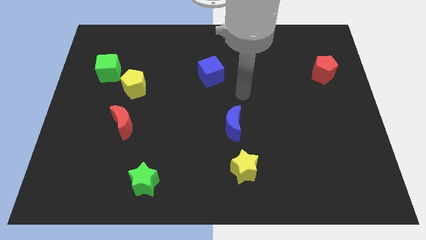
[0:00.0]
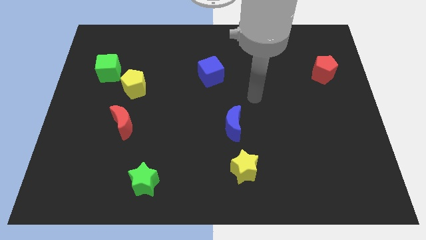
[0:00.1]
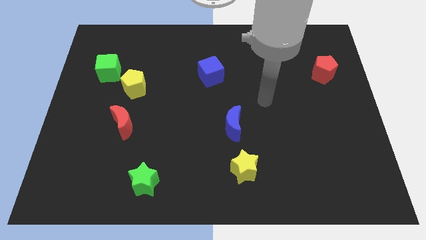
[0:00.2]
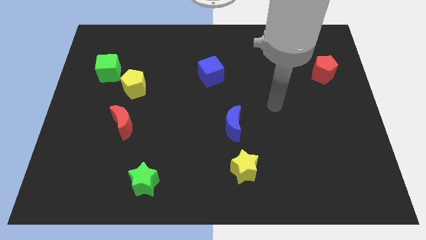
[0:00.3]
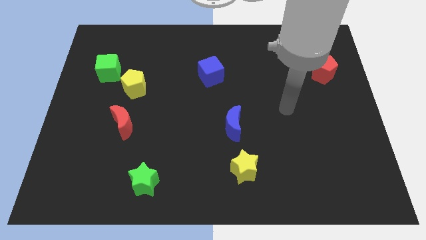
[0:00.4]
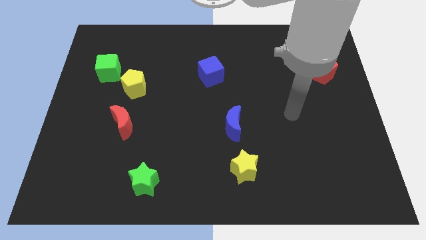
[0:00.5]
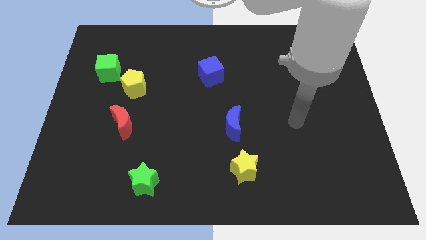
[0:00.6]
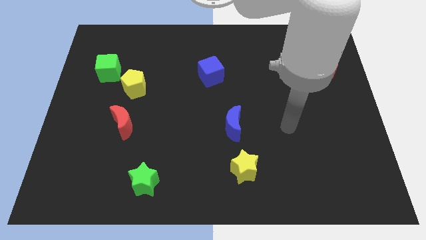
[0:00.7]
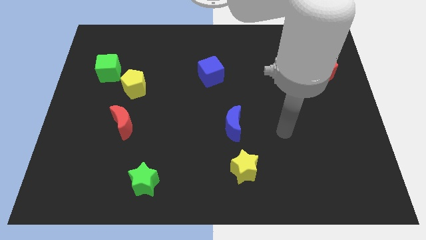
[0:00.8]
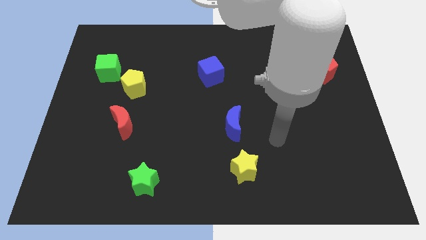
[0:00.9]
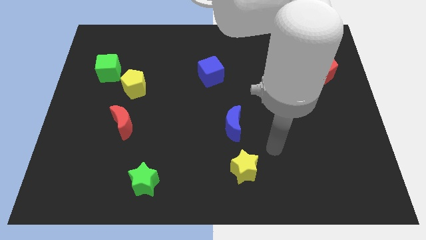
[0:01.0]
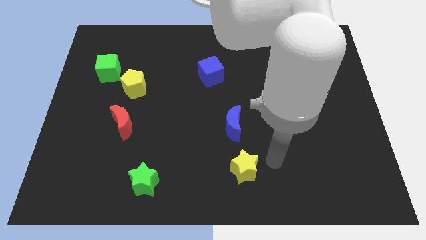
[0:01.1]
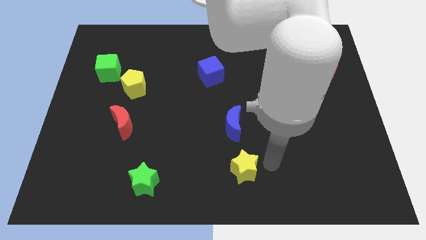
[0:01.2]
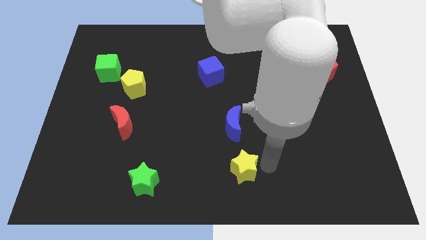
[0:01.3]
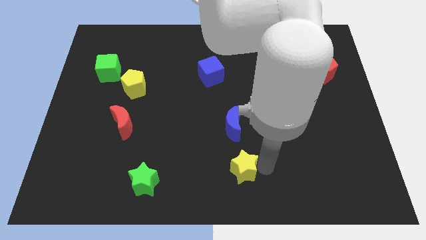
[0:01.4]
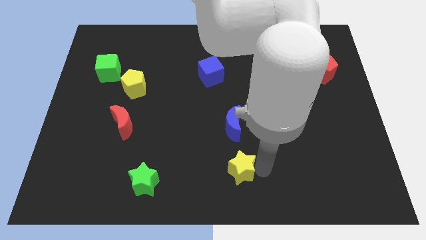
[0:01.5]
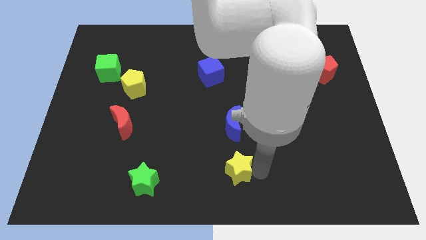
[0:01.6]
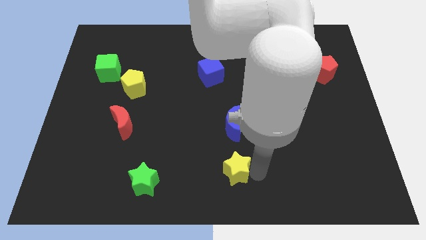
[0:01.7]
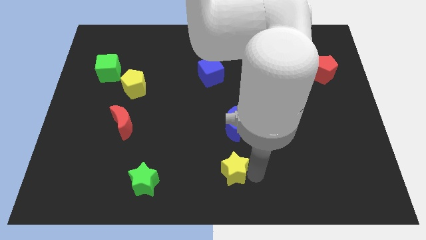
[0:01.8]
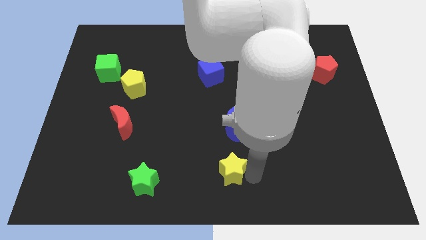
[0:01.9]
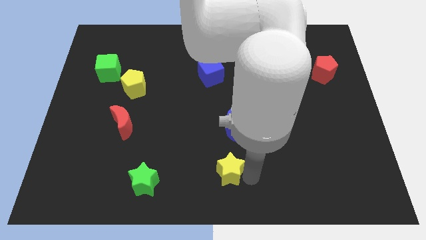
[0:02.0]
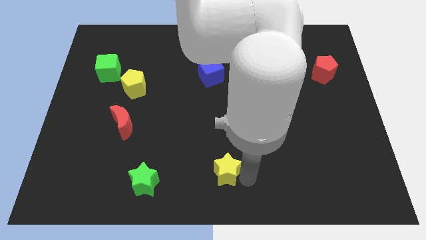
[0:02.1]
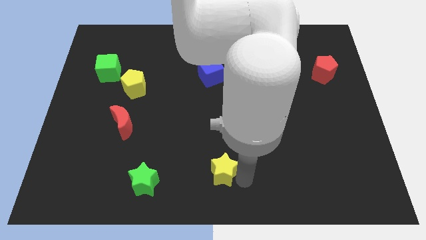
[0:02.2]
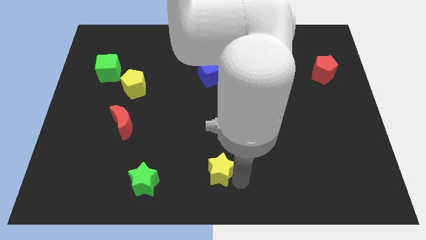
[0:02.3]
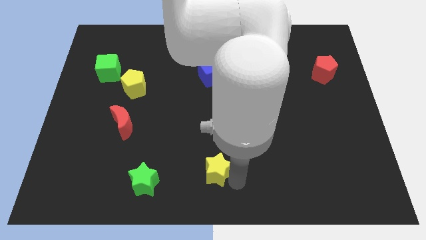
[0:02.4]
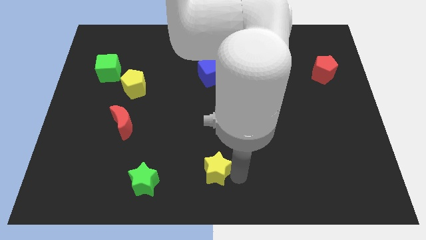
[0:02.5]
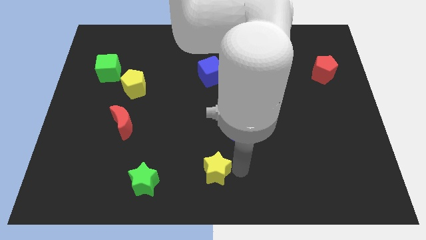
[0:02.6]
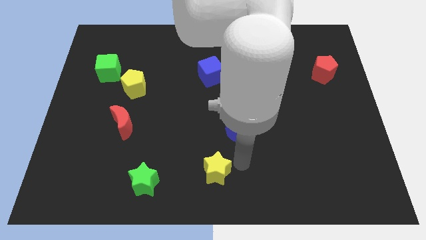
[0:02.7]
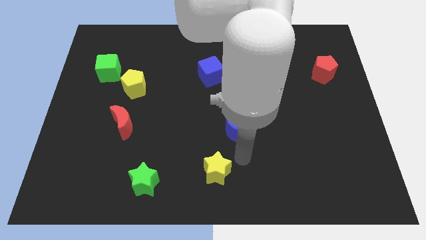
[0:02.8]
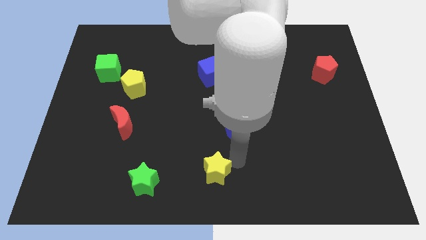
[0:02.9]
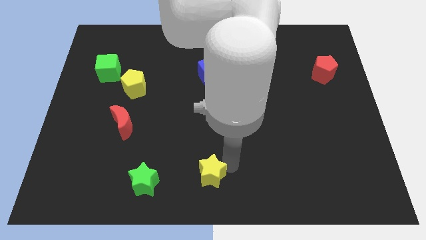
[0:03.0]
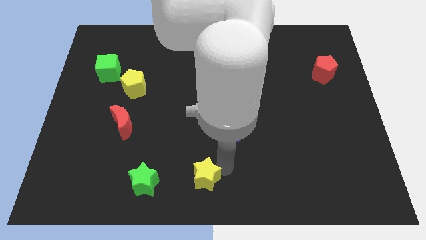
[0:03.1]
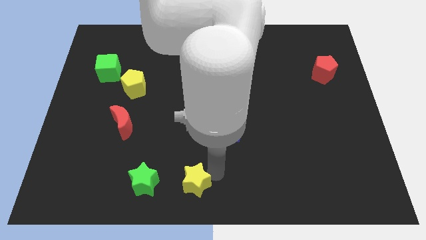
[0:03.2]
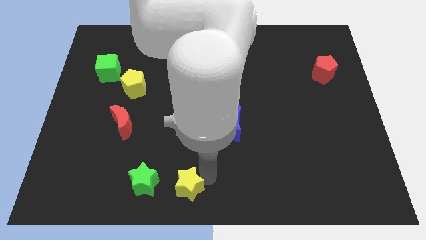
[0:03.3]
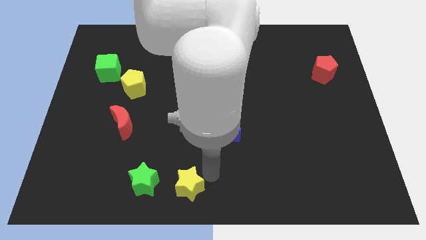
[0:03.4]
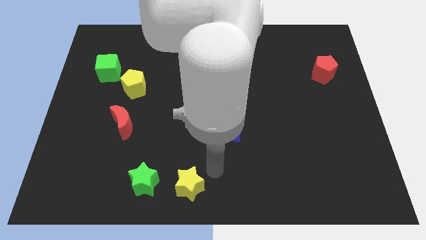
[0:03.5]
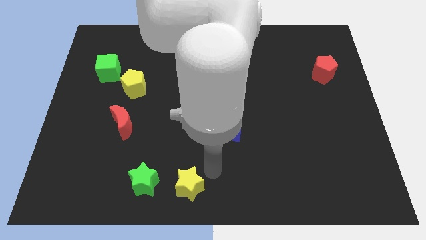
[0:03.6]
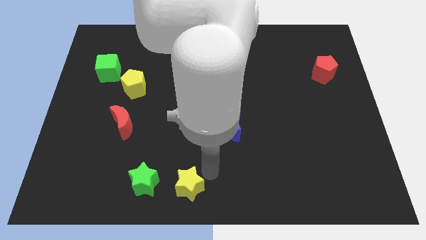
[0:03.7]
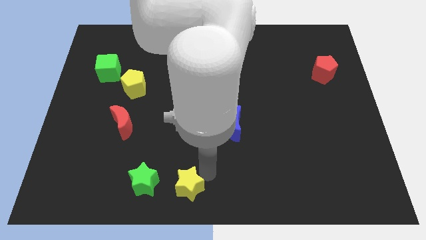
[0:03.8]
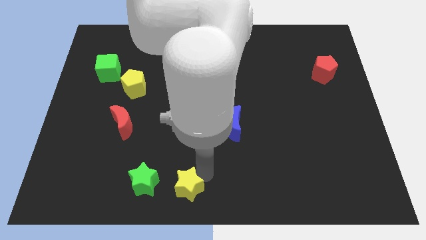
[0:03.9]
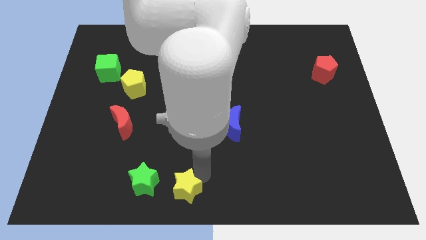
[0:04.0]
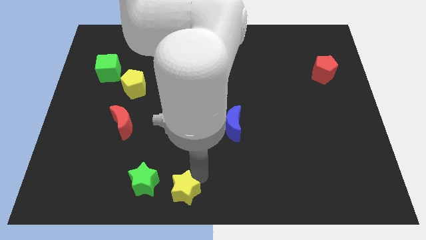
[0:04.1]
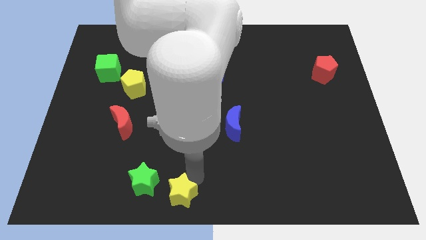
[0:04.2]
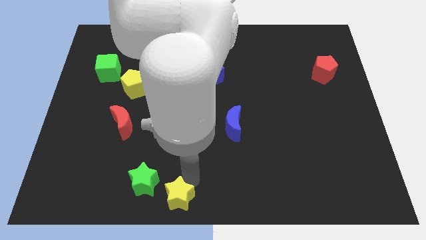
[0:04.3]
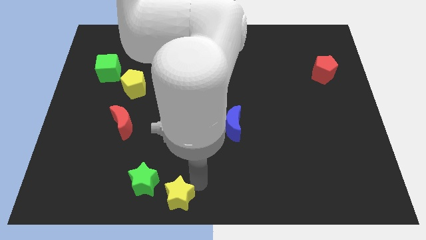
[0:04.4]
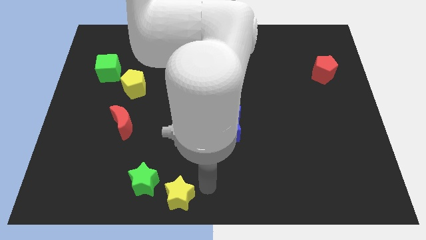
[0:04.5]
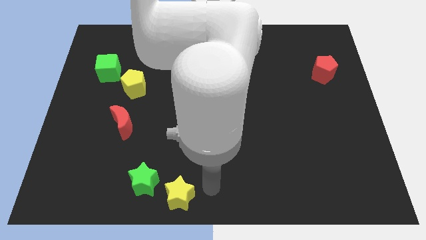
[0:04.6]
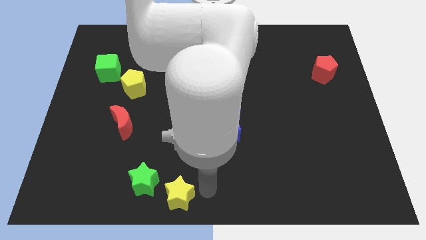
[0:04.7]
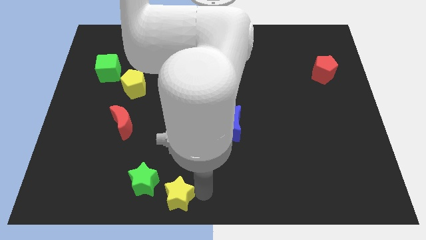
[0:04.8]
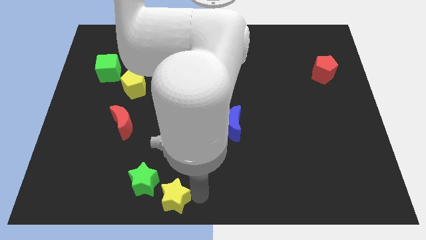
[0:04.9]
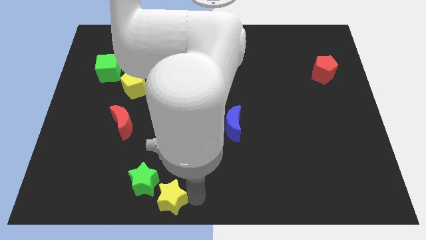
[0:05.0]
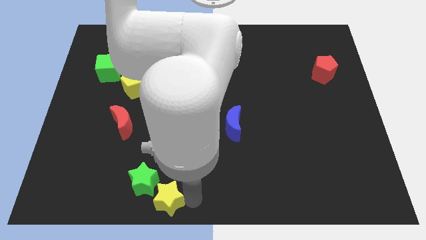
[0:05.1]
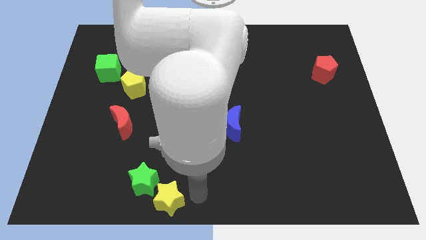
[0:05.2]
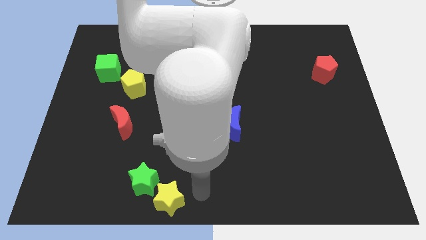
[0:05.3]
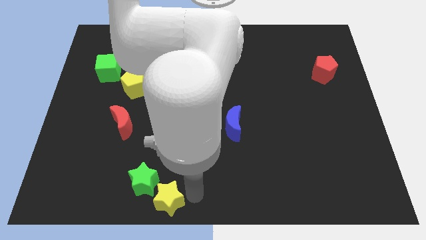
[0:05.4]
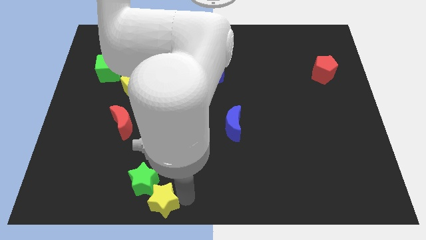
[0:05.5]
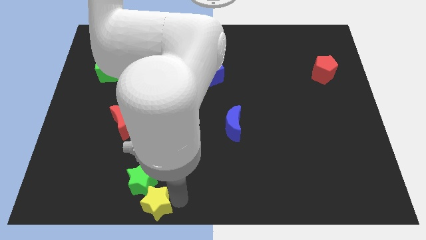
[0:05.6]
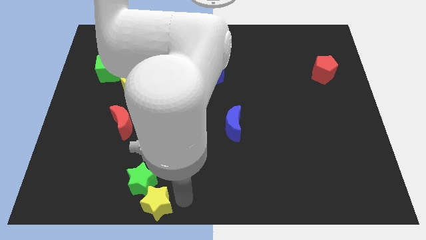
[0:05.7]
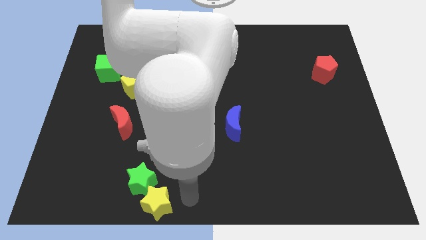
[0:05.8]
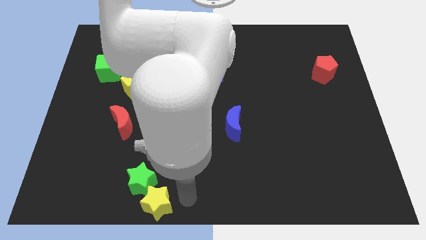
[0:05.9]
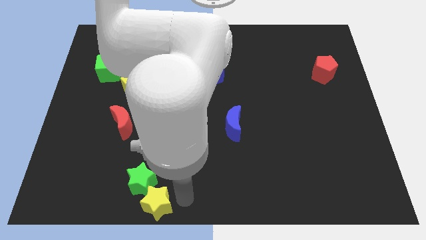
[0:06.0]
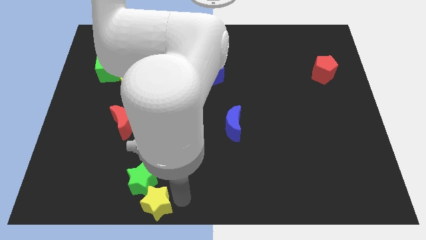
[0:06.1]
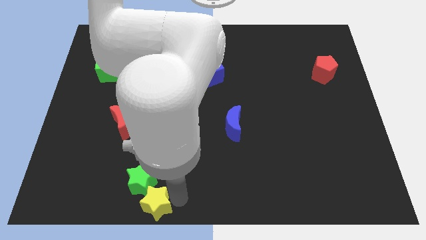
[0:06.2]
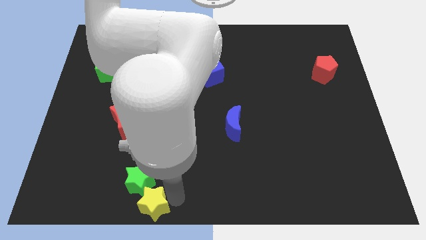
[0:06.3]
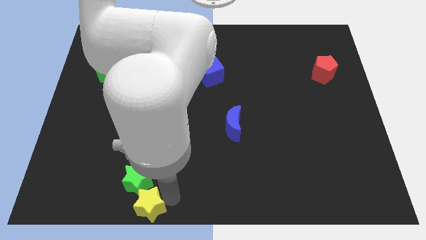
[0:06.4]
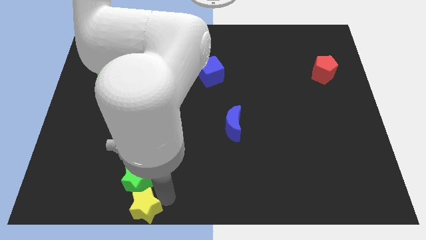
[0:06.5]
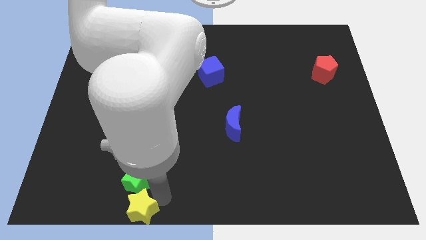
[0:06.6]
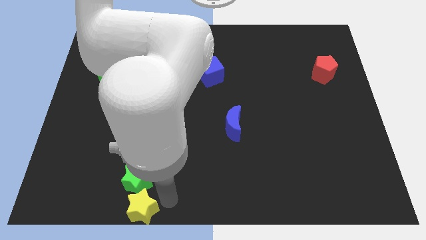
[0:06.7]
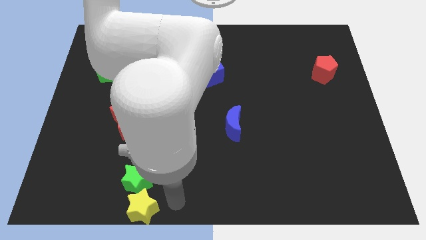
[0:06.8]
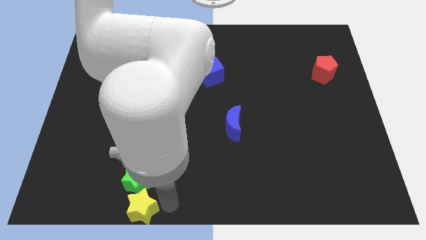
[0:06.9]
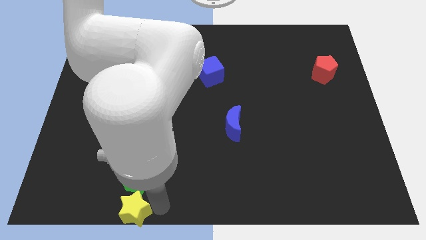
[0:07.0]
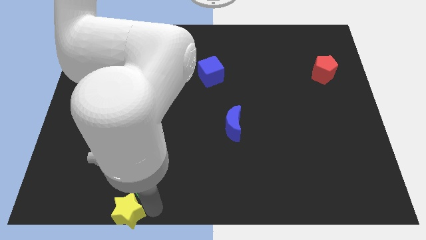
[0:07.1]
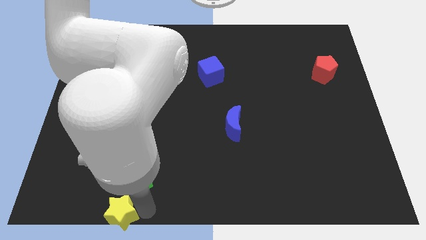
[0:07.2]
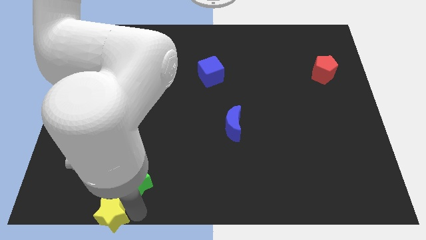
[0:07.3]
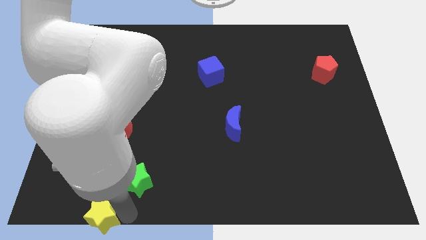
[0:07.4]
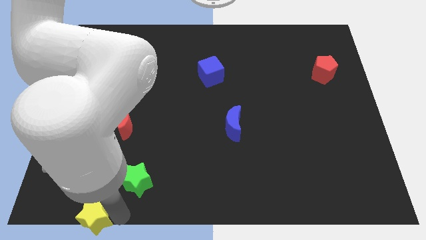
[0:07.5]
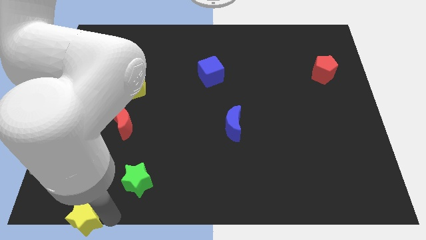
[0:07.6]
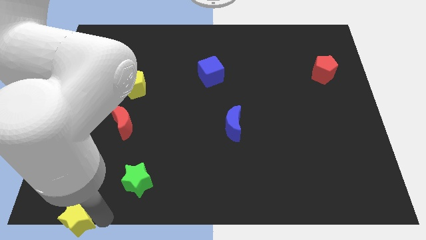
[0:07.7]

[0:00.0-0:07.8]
slide the yellow star to the bottom left of the board
